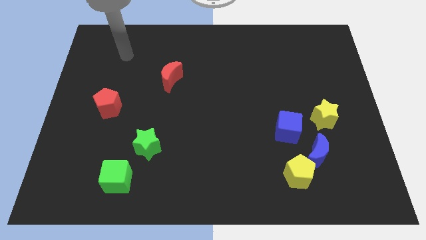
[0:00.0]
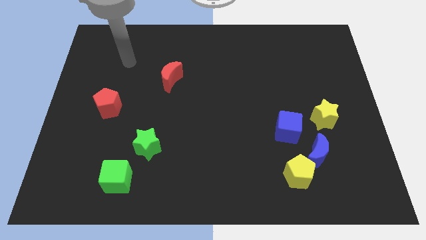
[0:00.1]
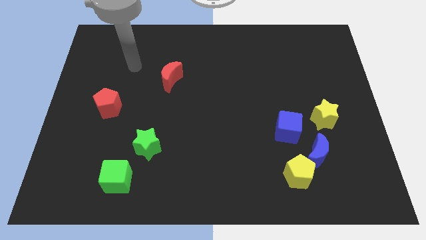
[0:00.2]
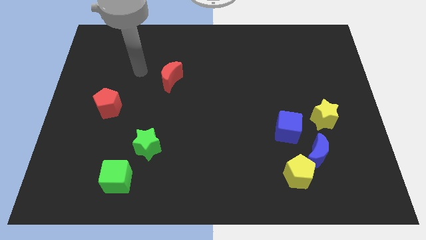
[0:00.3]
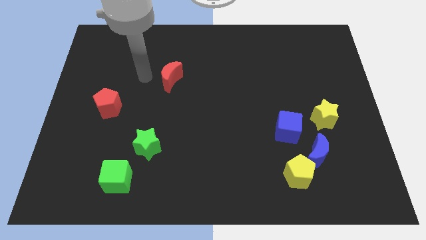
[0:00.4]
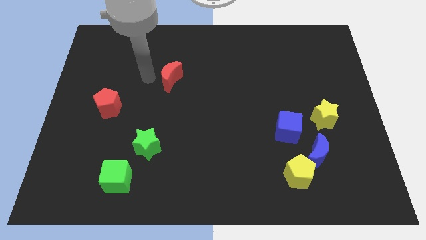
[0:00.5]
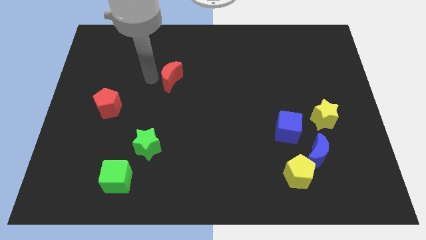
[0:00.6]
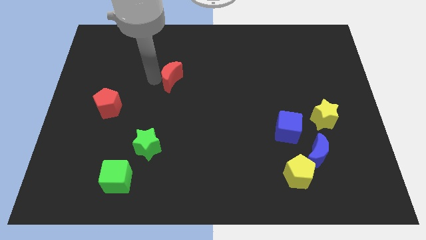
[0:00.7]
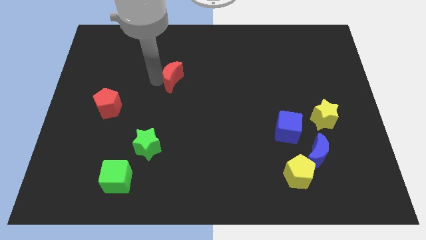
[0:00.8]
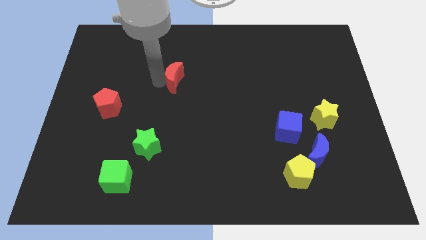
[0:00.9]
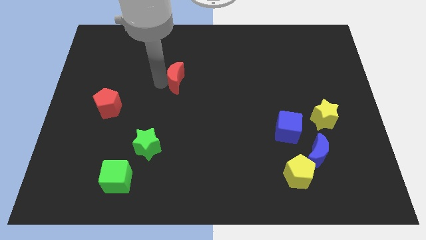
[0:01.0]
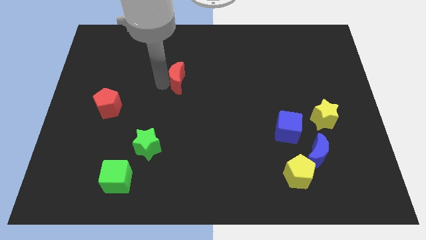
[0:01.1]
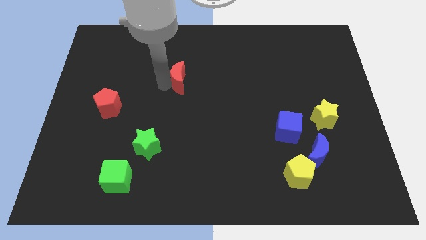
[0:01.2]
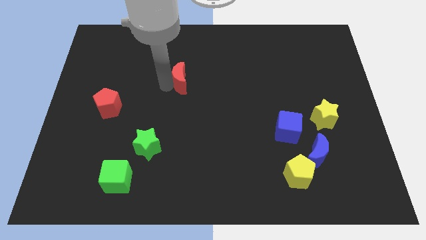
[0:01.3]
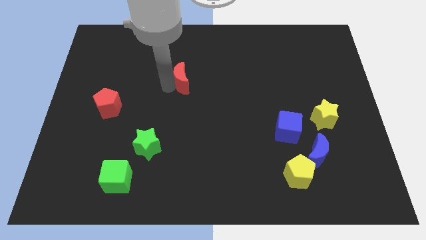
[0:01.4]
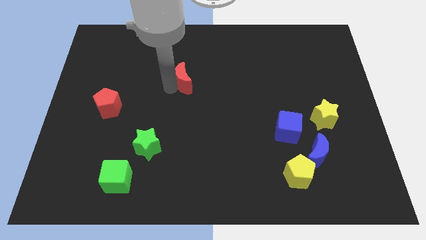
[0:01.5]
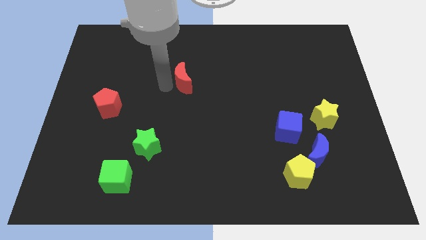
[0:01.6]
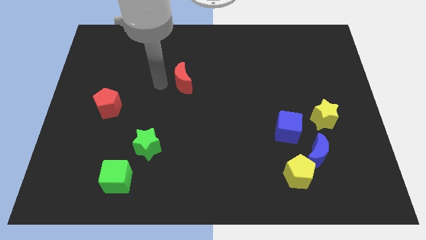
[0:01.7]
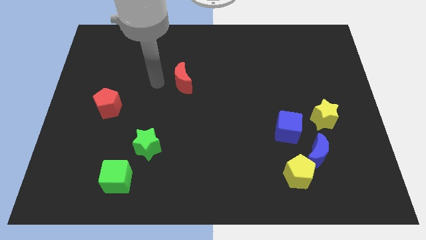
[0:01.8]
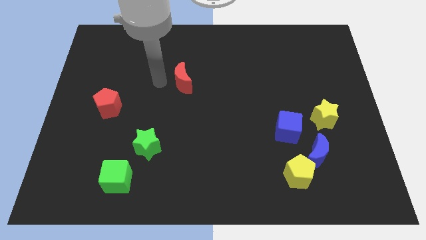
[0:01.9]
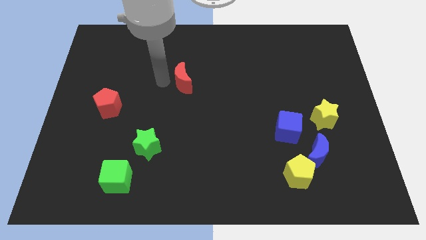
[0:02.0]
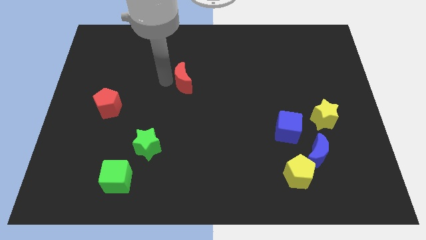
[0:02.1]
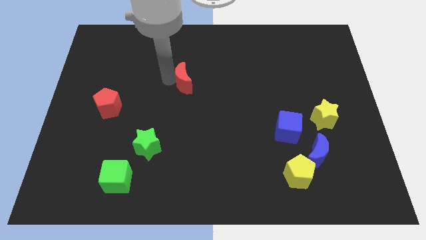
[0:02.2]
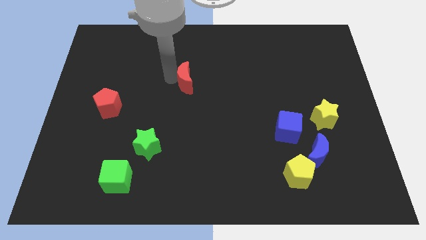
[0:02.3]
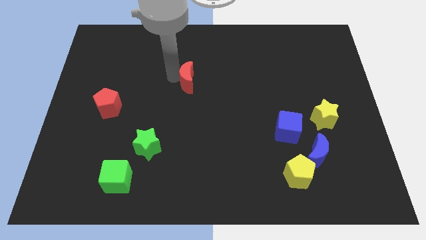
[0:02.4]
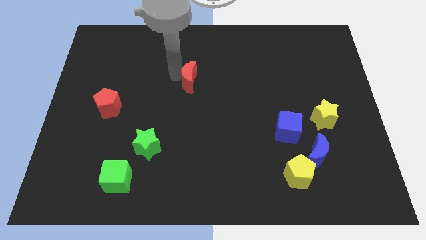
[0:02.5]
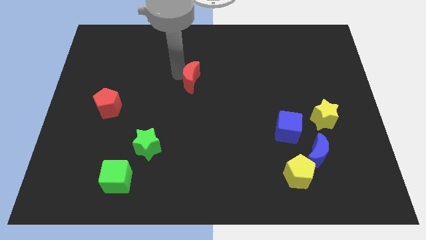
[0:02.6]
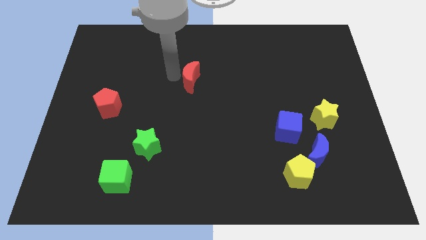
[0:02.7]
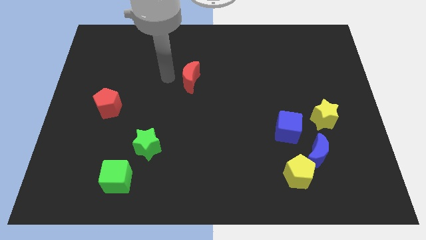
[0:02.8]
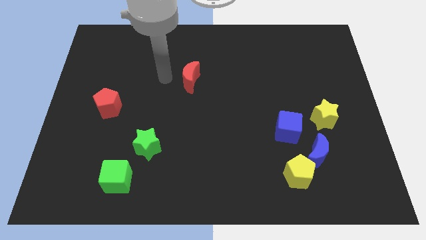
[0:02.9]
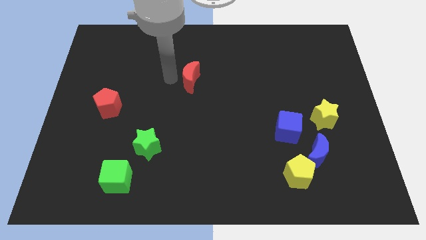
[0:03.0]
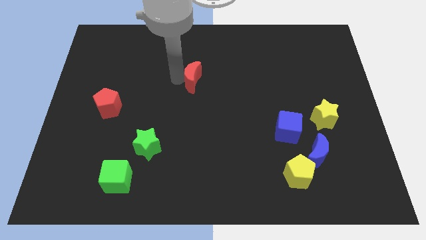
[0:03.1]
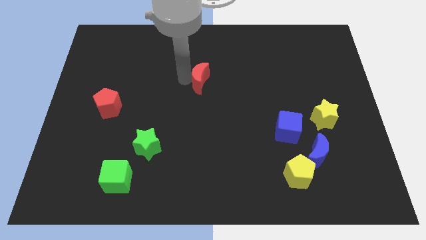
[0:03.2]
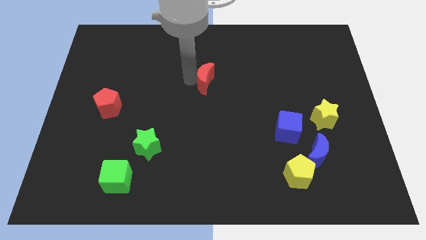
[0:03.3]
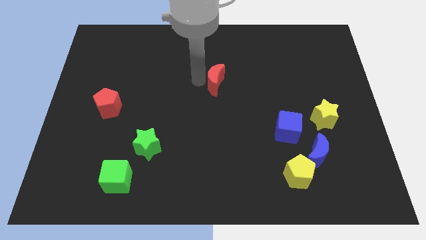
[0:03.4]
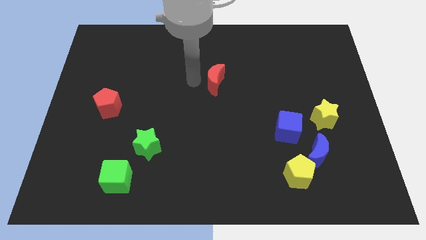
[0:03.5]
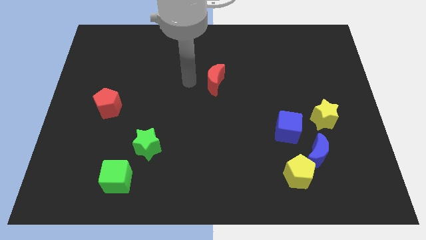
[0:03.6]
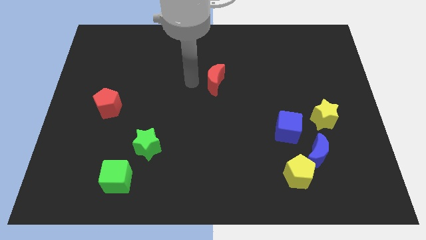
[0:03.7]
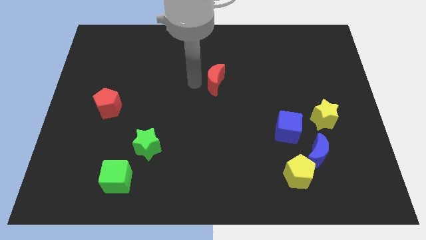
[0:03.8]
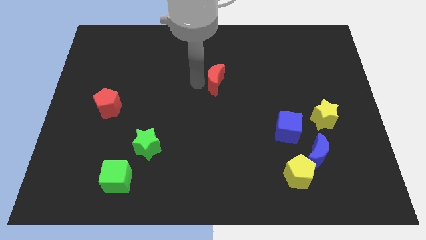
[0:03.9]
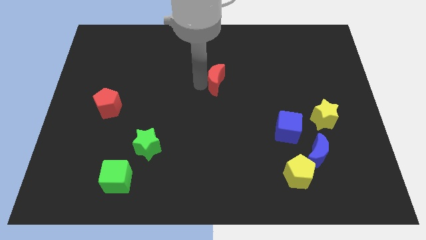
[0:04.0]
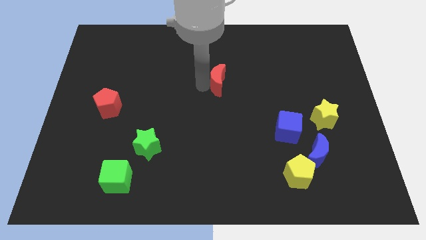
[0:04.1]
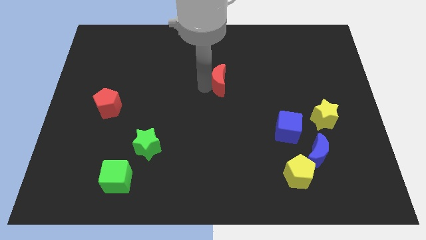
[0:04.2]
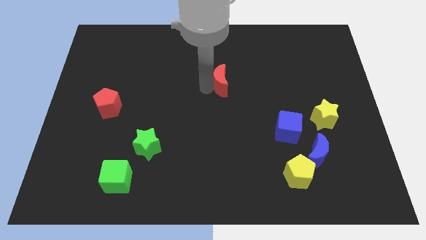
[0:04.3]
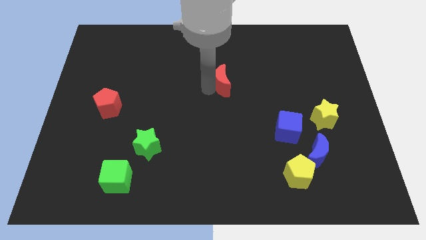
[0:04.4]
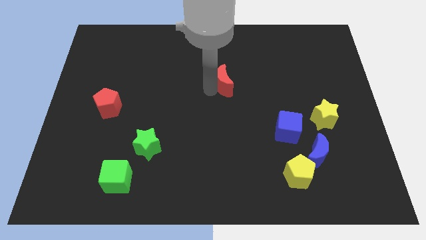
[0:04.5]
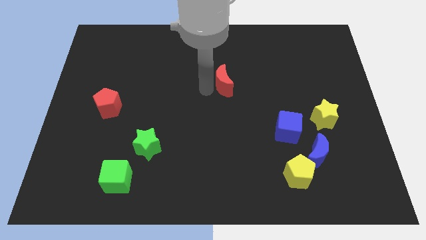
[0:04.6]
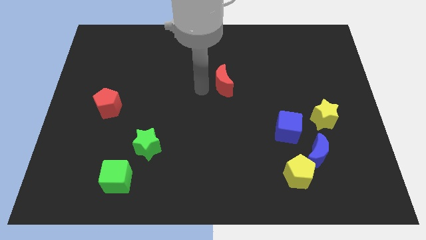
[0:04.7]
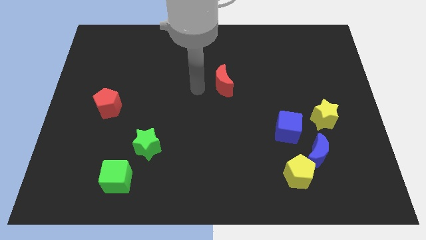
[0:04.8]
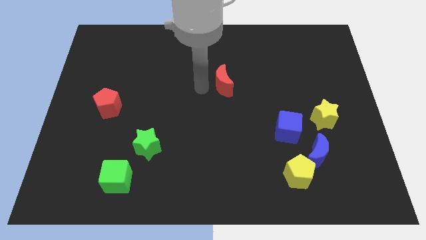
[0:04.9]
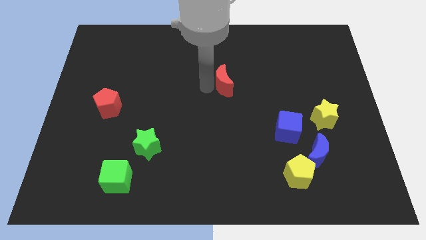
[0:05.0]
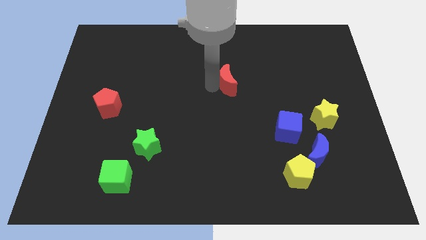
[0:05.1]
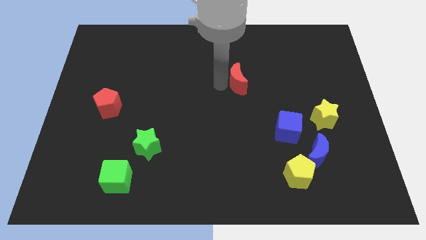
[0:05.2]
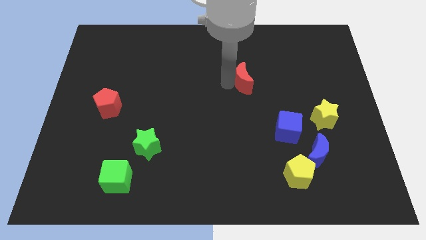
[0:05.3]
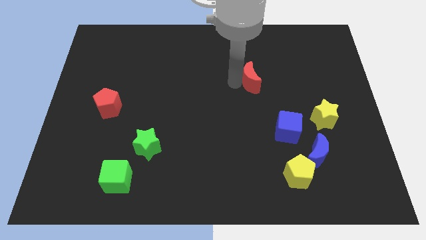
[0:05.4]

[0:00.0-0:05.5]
slide the red moon right

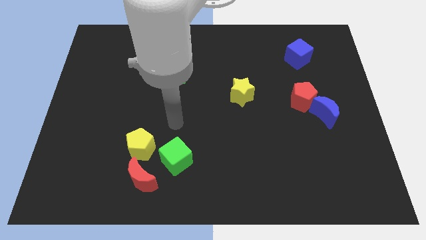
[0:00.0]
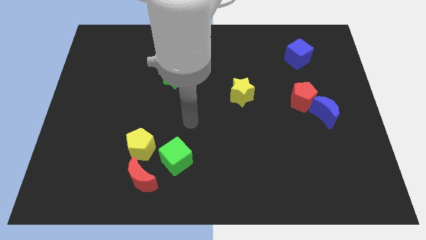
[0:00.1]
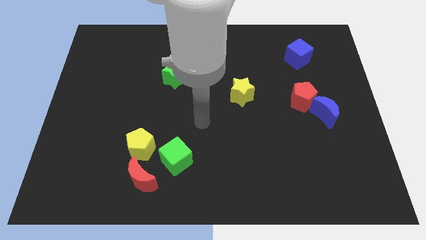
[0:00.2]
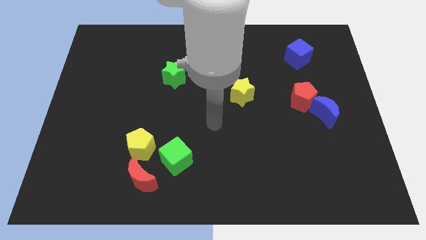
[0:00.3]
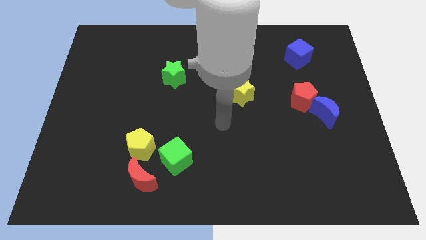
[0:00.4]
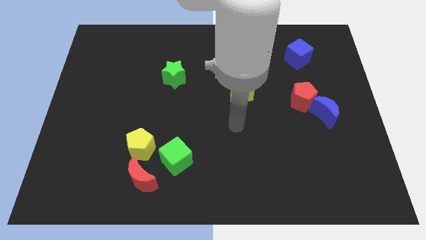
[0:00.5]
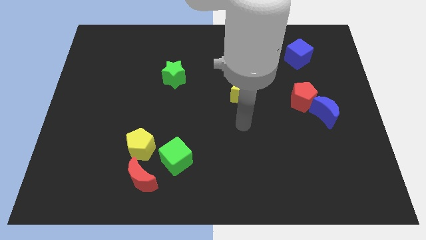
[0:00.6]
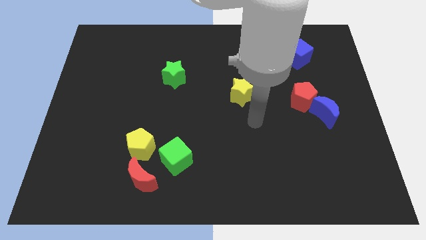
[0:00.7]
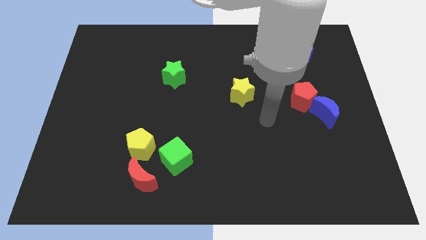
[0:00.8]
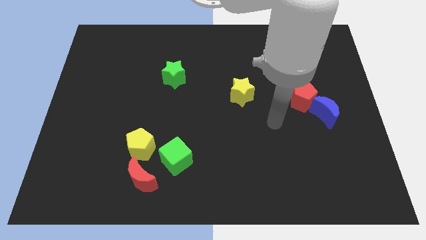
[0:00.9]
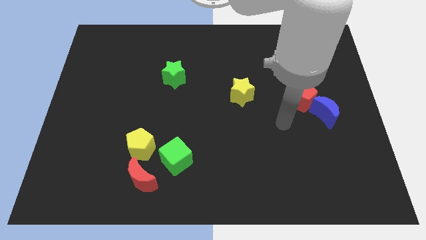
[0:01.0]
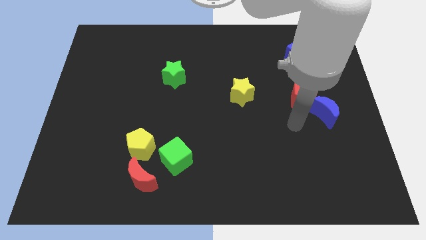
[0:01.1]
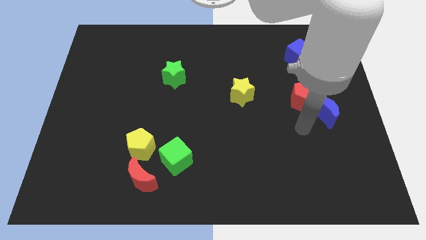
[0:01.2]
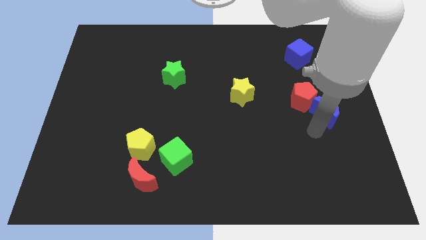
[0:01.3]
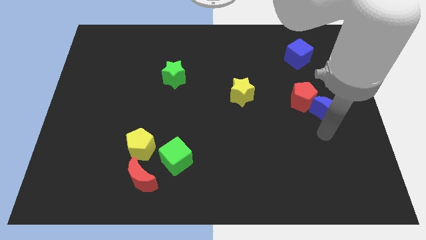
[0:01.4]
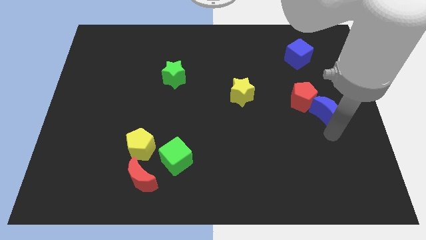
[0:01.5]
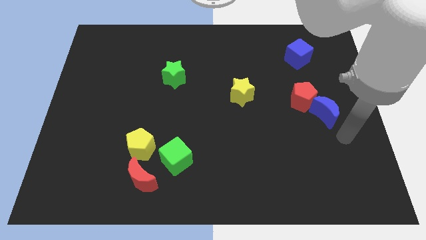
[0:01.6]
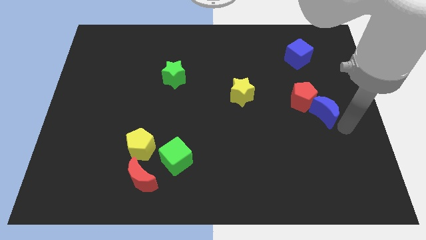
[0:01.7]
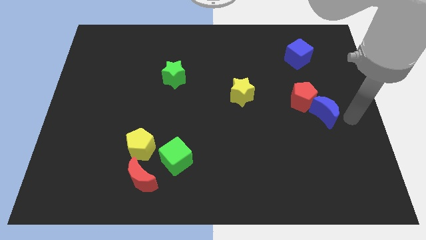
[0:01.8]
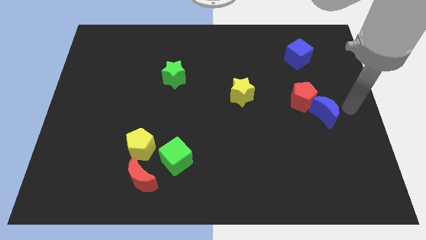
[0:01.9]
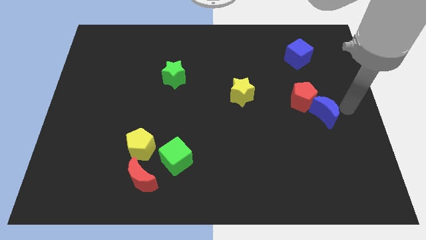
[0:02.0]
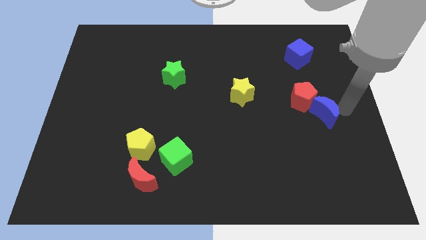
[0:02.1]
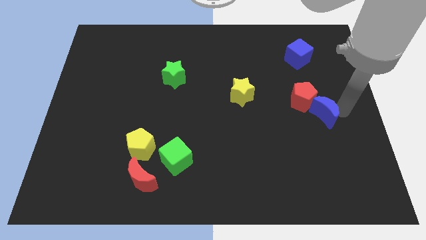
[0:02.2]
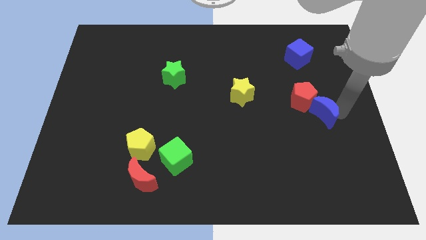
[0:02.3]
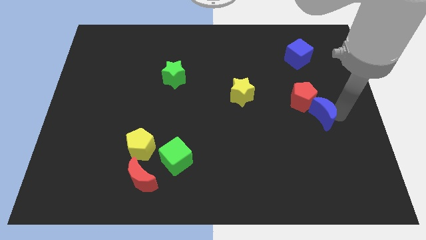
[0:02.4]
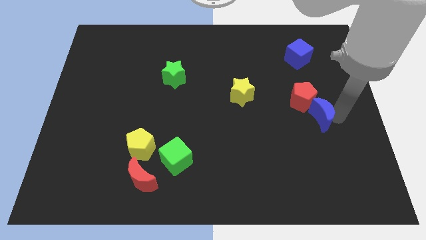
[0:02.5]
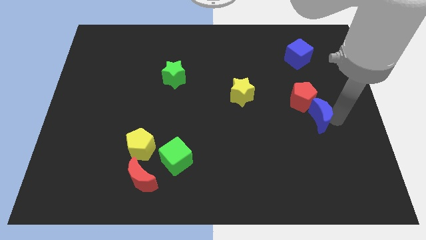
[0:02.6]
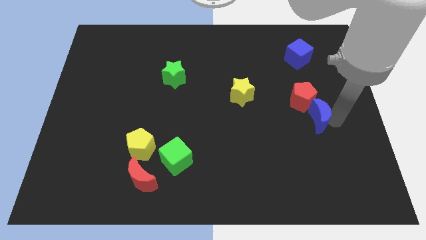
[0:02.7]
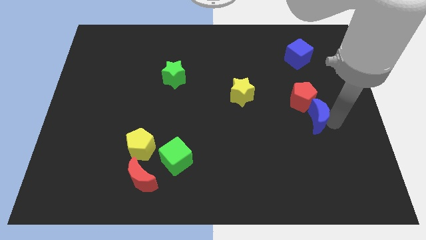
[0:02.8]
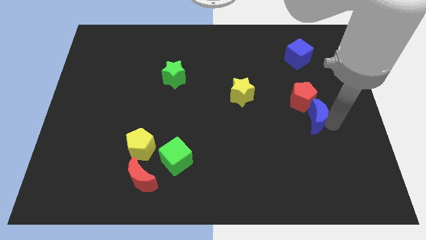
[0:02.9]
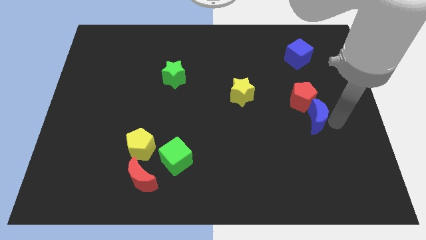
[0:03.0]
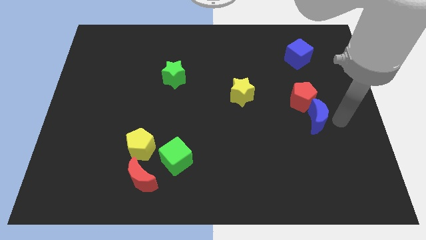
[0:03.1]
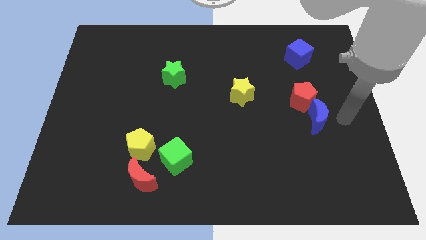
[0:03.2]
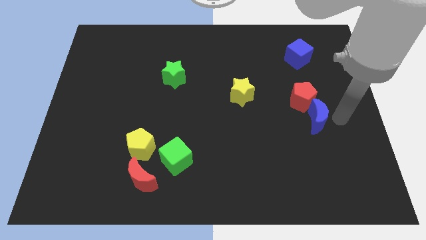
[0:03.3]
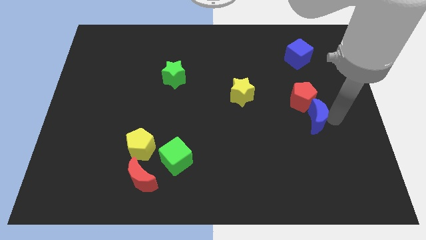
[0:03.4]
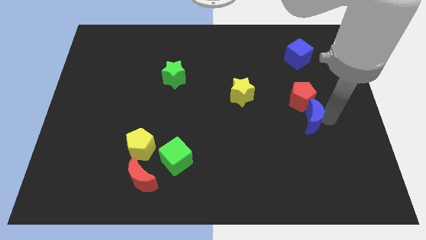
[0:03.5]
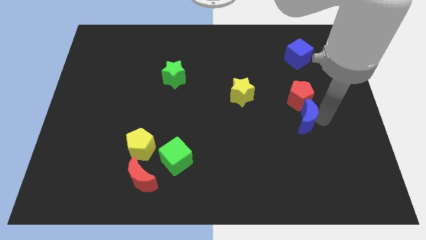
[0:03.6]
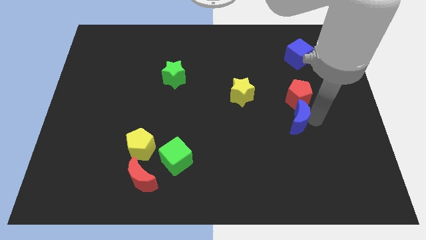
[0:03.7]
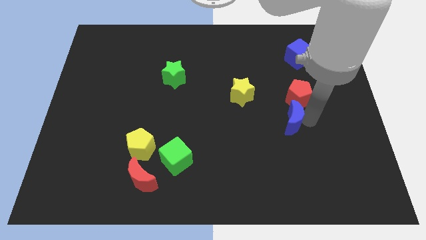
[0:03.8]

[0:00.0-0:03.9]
slide the blue moon a little left
